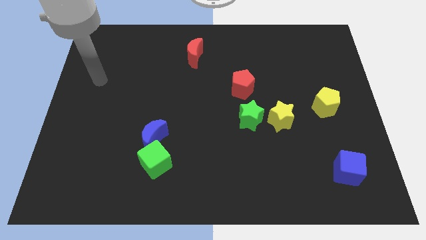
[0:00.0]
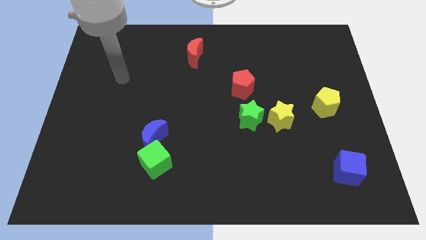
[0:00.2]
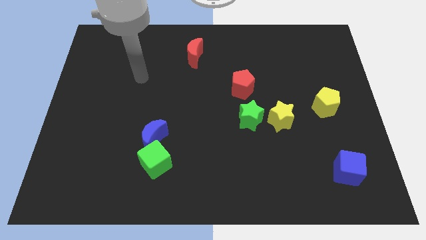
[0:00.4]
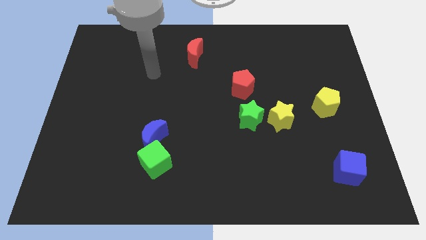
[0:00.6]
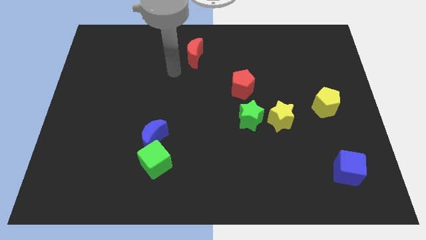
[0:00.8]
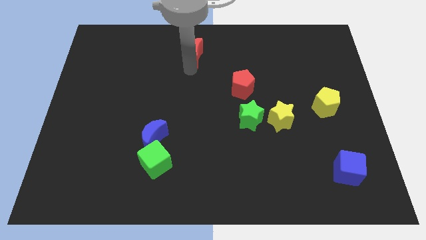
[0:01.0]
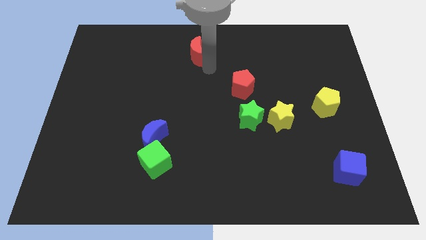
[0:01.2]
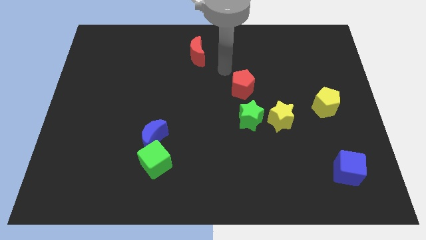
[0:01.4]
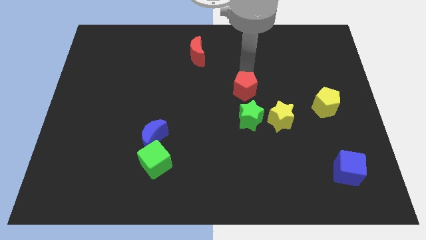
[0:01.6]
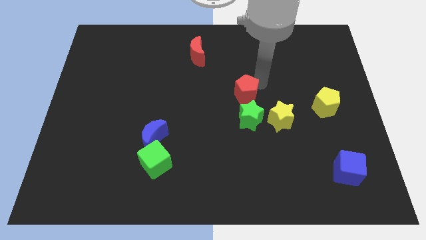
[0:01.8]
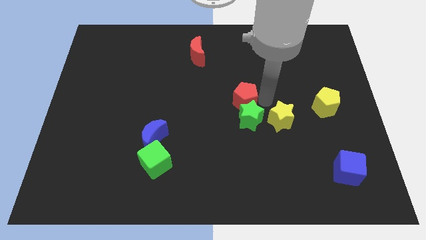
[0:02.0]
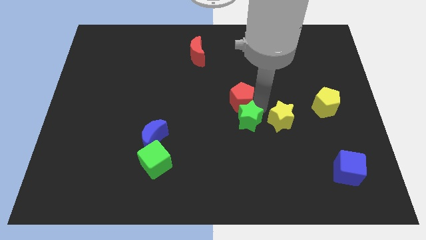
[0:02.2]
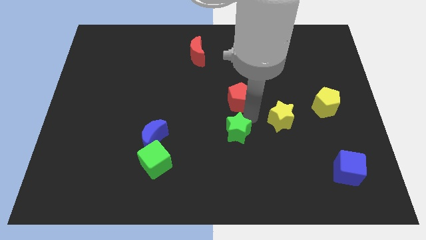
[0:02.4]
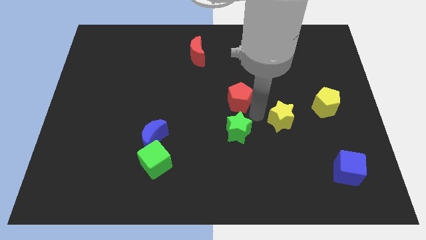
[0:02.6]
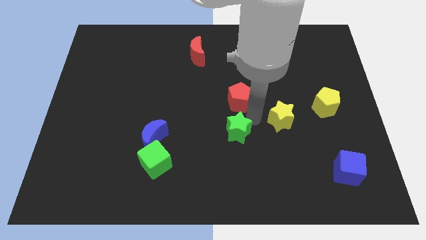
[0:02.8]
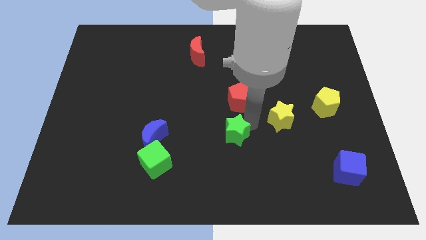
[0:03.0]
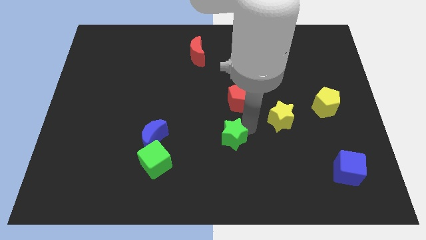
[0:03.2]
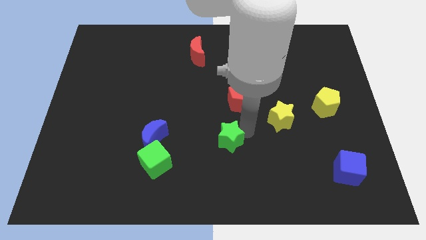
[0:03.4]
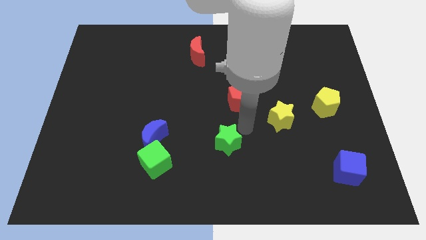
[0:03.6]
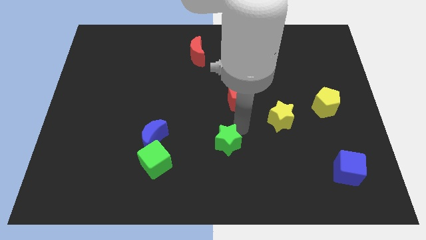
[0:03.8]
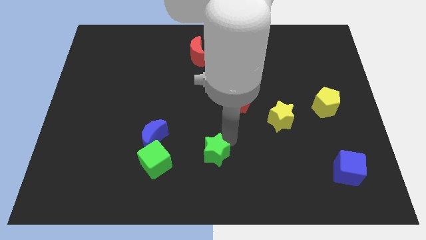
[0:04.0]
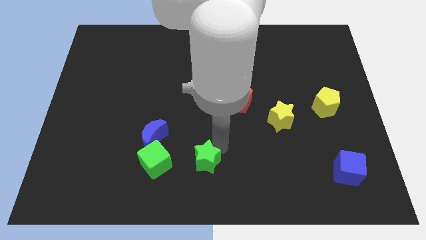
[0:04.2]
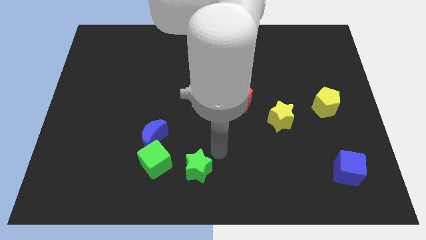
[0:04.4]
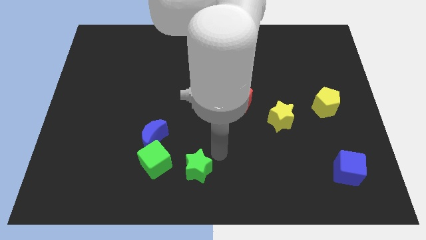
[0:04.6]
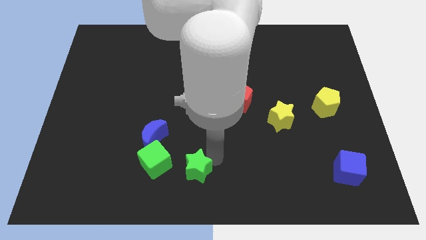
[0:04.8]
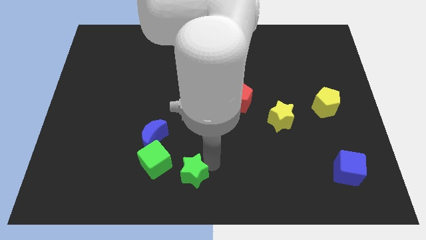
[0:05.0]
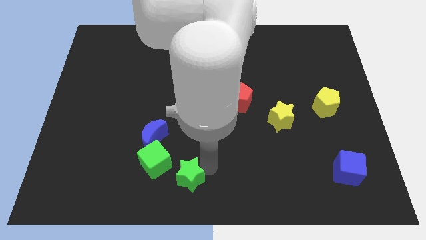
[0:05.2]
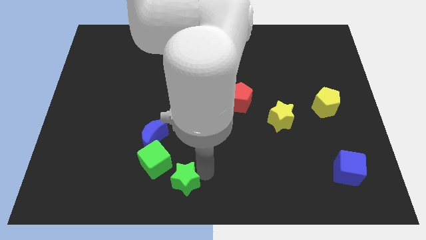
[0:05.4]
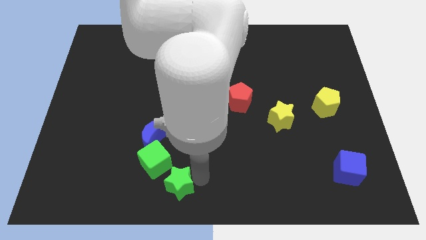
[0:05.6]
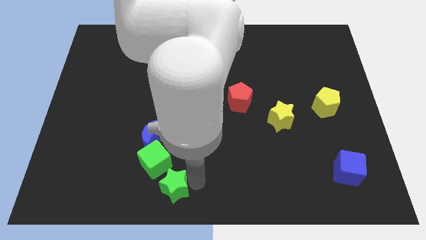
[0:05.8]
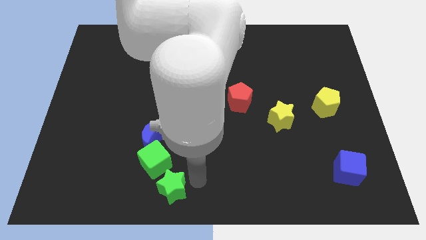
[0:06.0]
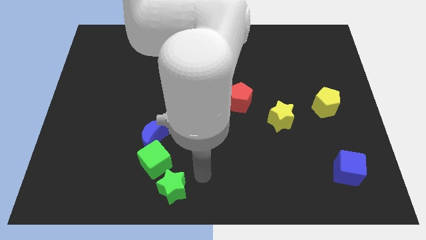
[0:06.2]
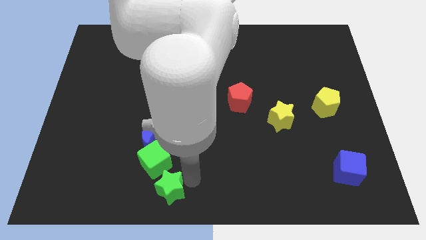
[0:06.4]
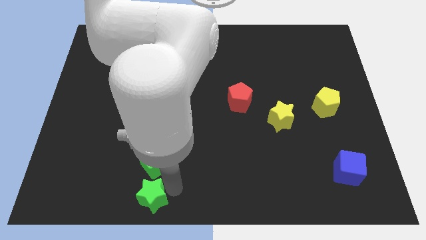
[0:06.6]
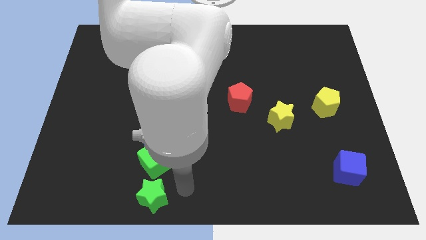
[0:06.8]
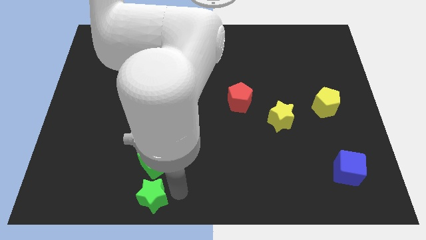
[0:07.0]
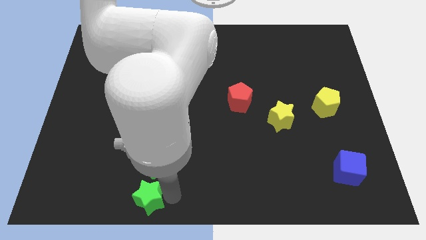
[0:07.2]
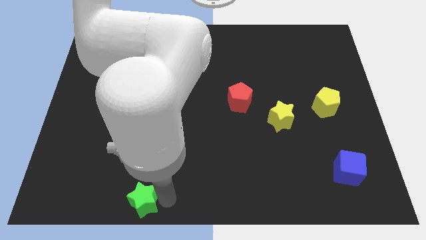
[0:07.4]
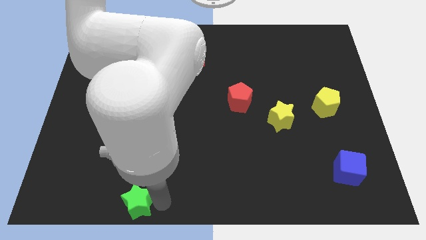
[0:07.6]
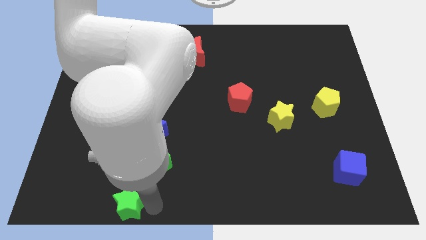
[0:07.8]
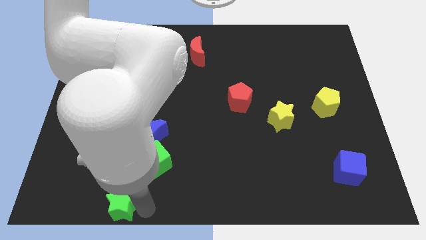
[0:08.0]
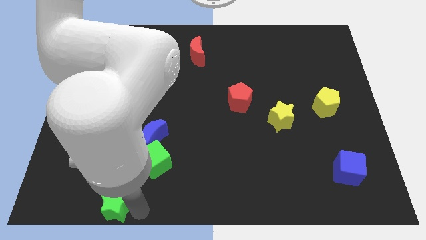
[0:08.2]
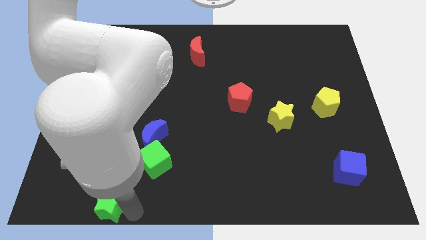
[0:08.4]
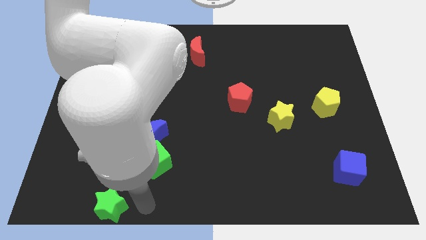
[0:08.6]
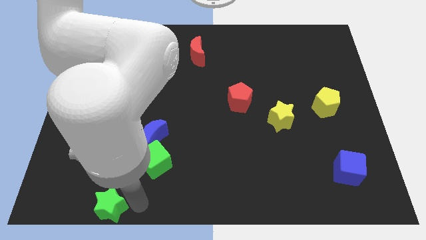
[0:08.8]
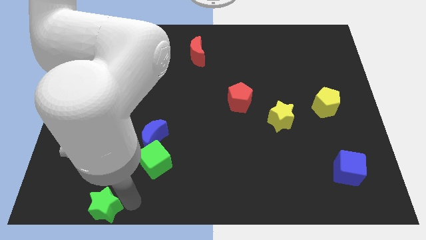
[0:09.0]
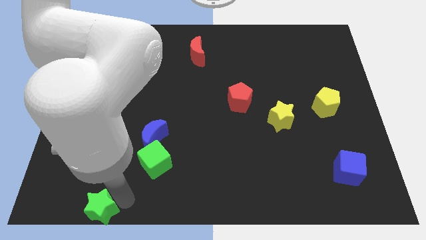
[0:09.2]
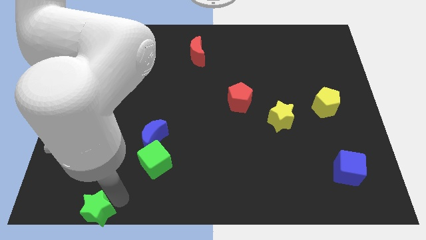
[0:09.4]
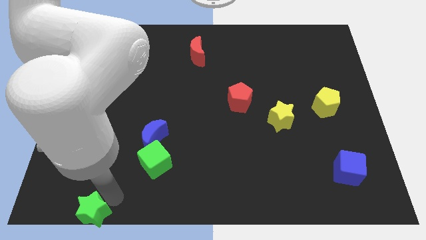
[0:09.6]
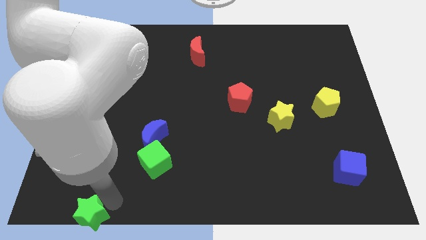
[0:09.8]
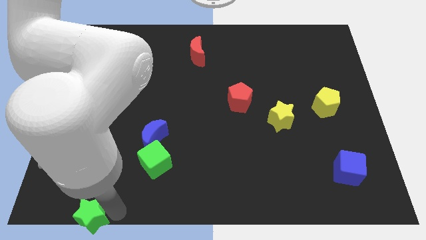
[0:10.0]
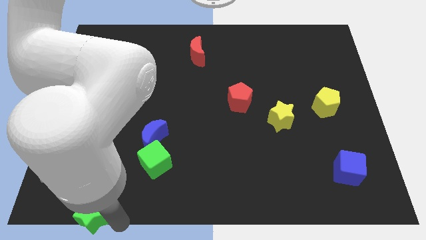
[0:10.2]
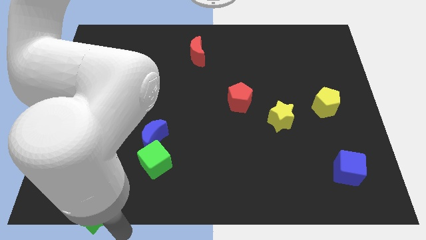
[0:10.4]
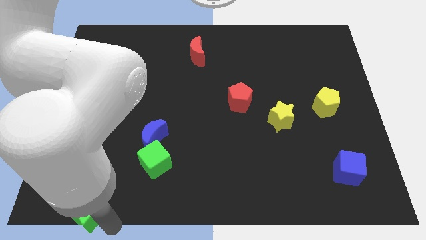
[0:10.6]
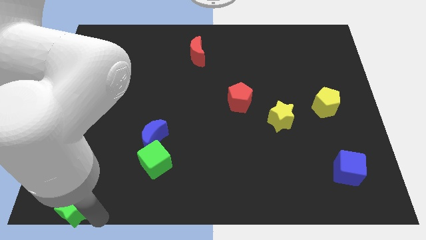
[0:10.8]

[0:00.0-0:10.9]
put the green star to the lower left corner

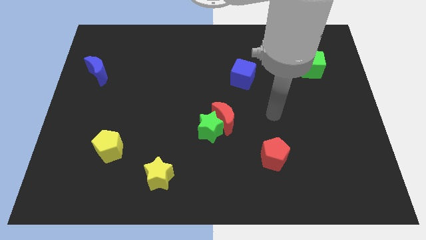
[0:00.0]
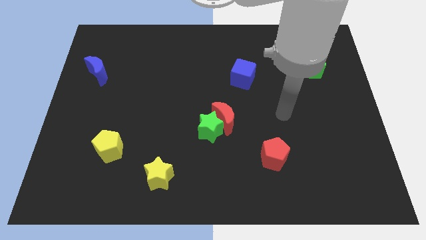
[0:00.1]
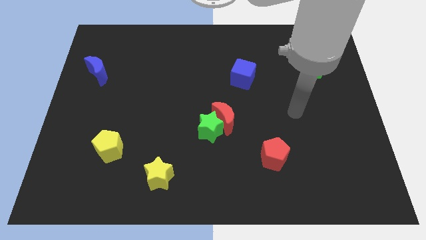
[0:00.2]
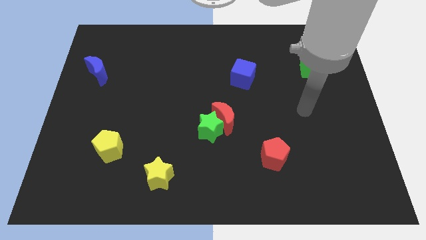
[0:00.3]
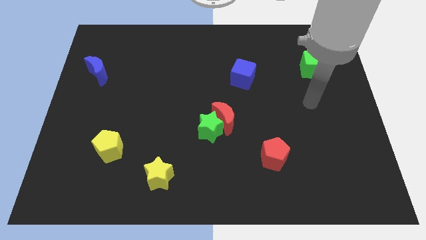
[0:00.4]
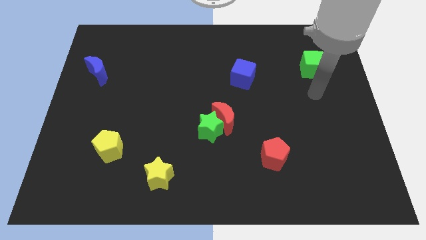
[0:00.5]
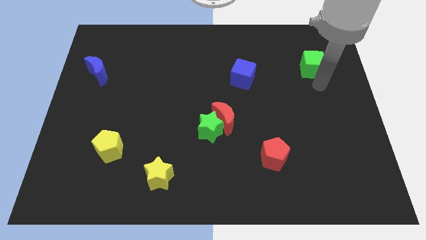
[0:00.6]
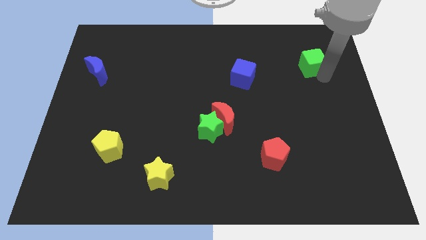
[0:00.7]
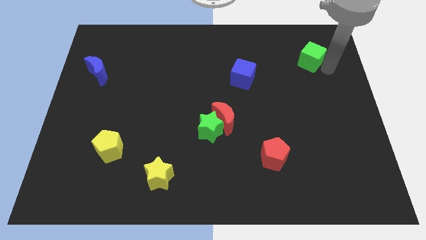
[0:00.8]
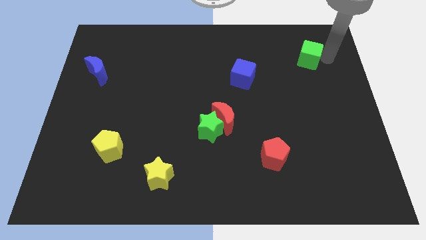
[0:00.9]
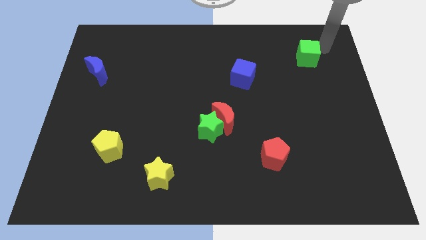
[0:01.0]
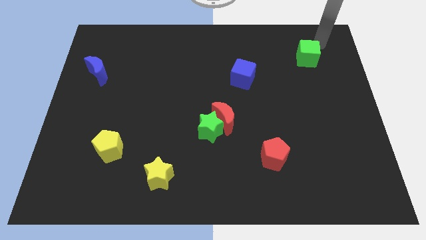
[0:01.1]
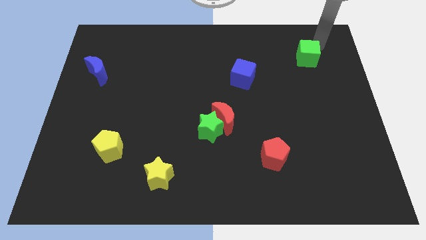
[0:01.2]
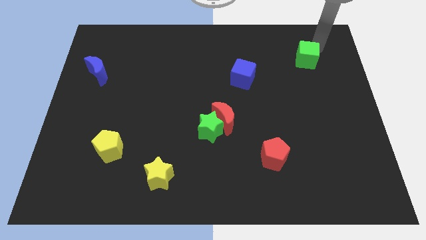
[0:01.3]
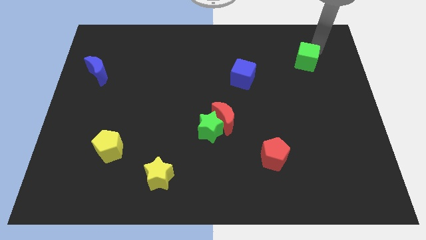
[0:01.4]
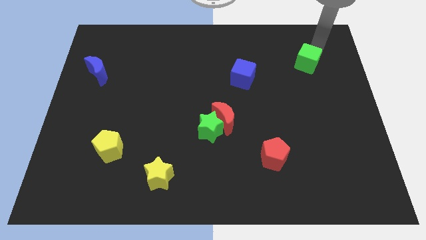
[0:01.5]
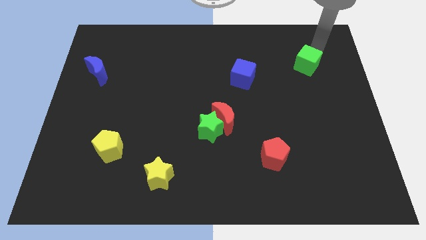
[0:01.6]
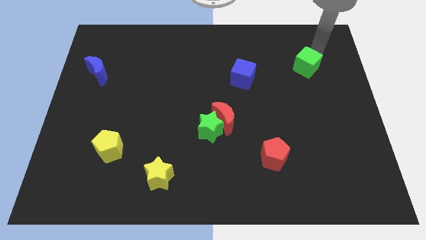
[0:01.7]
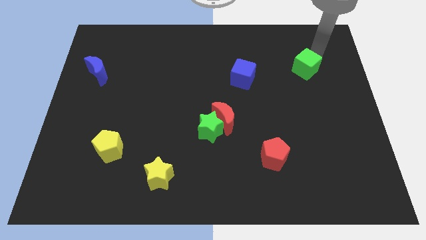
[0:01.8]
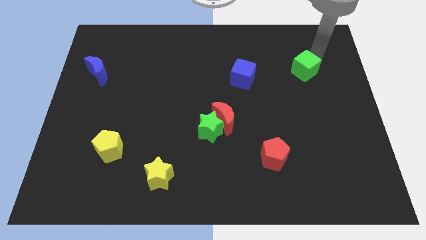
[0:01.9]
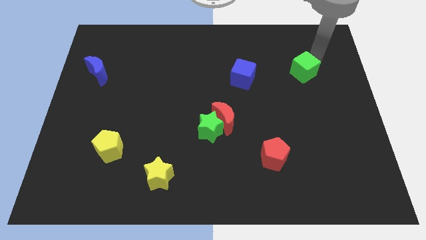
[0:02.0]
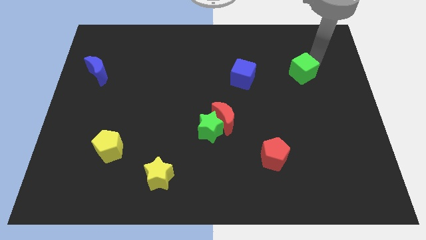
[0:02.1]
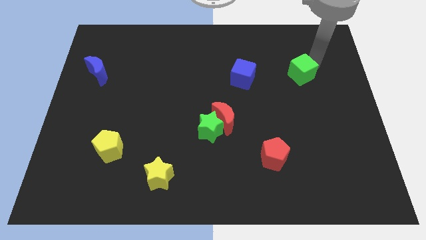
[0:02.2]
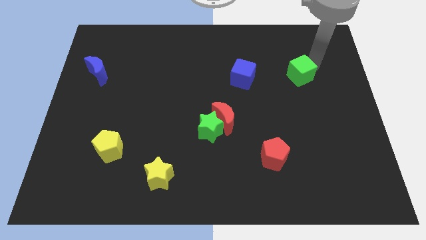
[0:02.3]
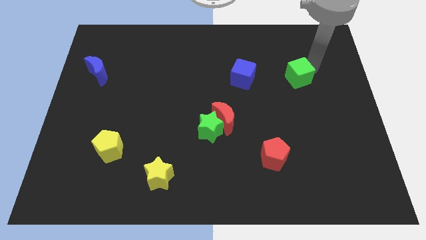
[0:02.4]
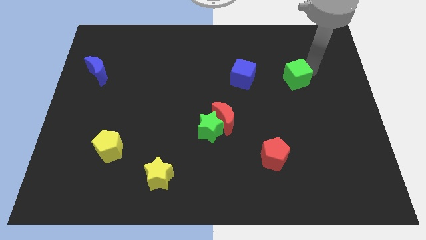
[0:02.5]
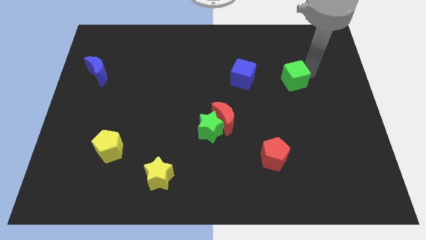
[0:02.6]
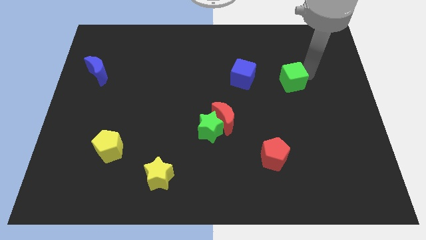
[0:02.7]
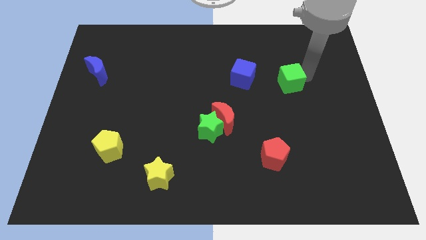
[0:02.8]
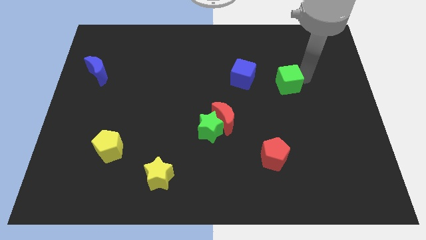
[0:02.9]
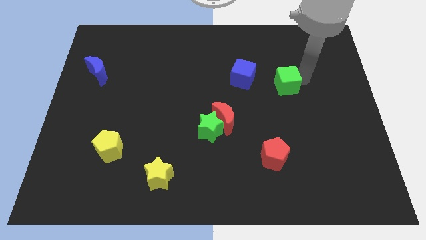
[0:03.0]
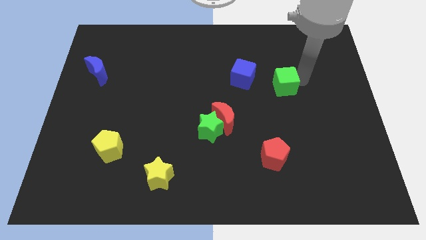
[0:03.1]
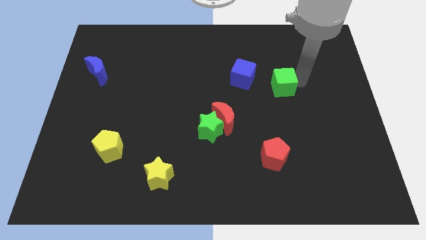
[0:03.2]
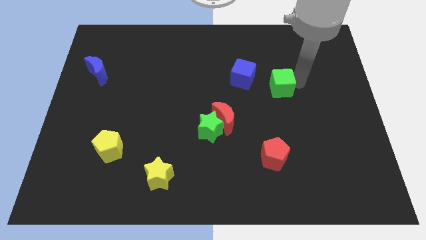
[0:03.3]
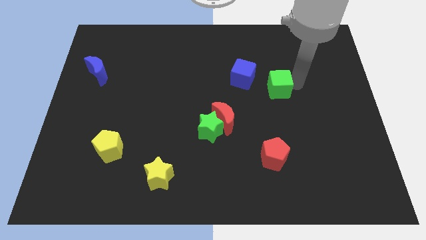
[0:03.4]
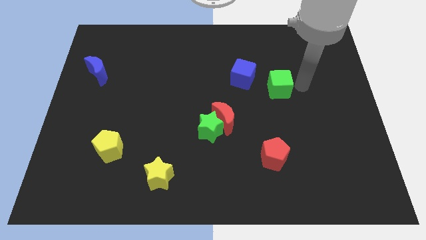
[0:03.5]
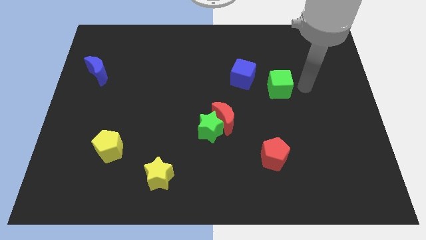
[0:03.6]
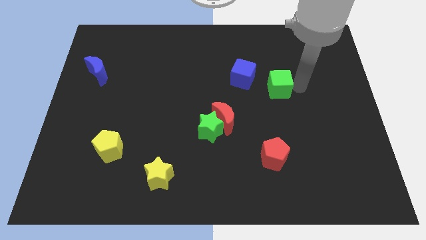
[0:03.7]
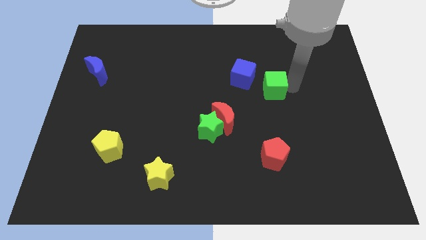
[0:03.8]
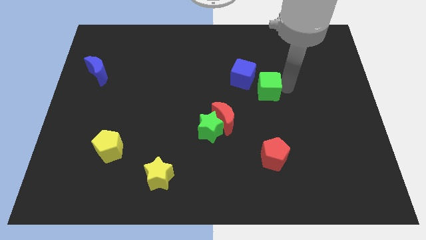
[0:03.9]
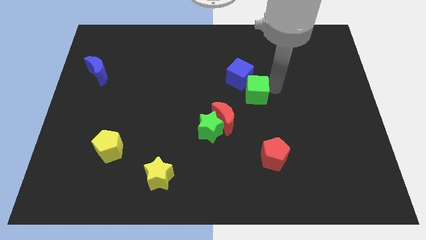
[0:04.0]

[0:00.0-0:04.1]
move the green cube to the center of the board
